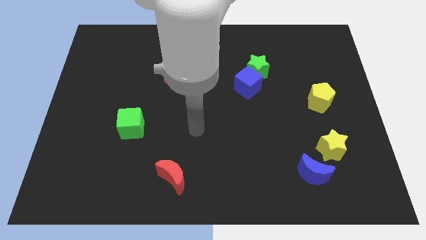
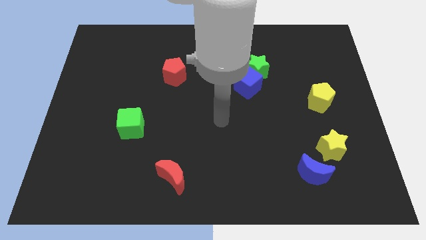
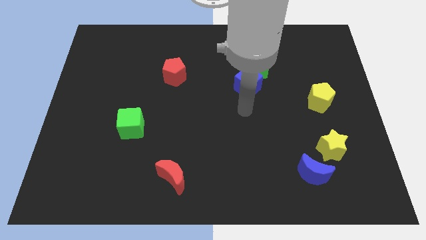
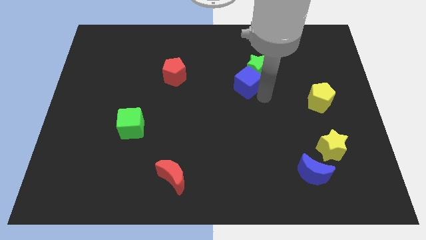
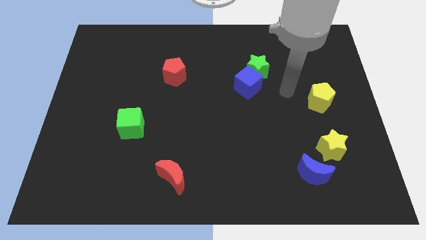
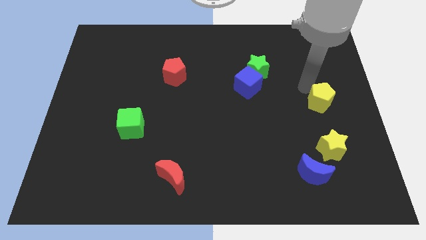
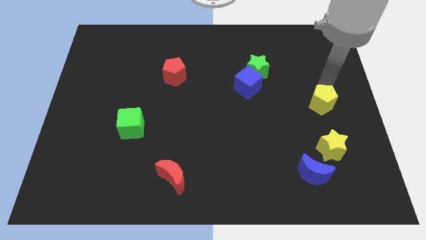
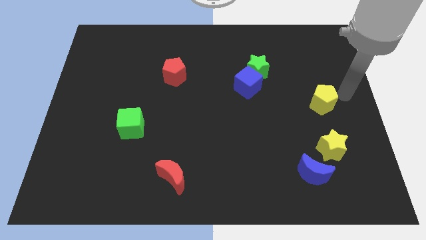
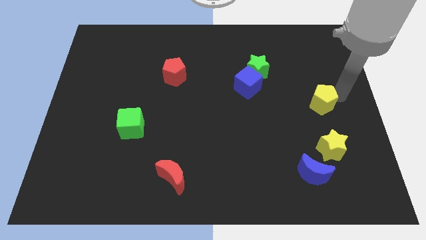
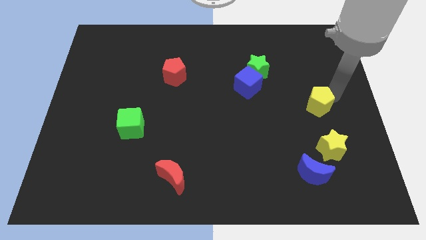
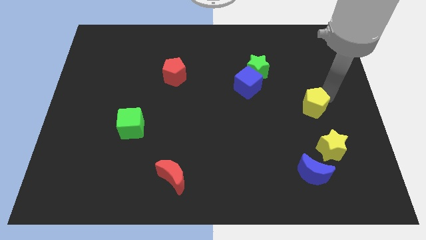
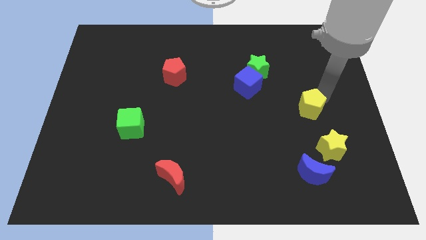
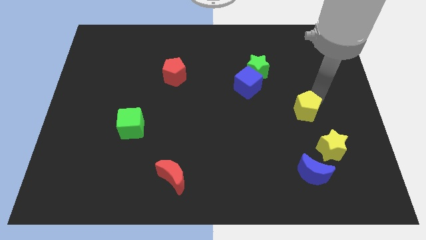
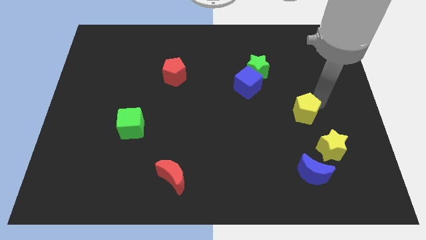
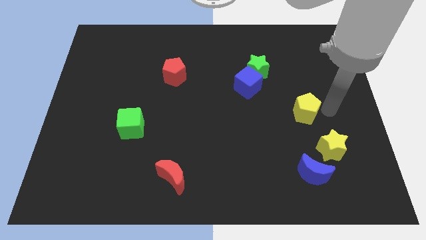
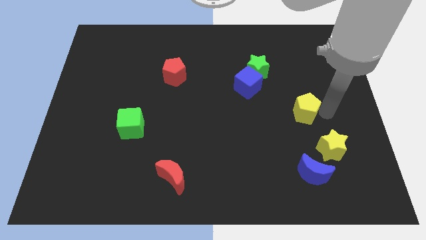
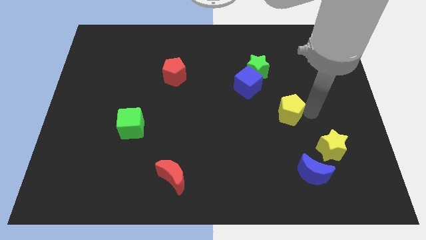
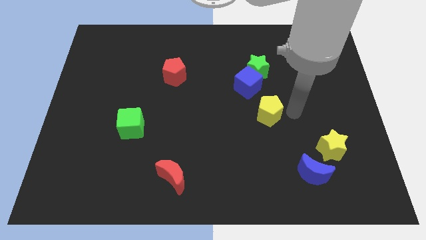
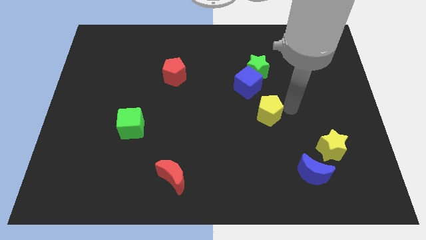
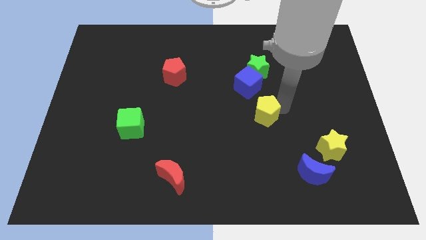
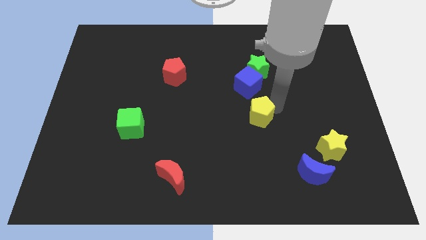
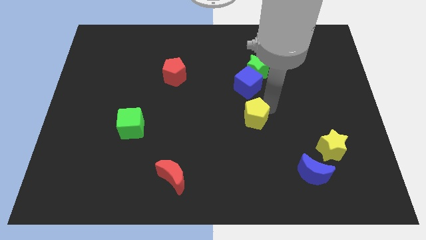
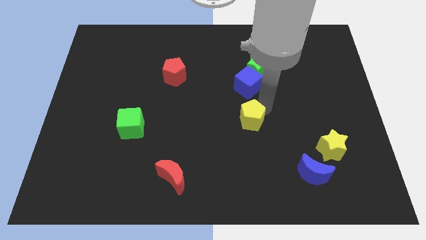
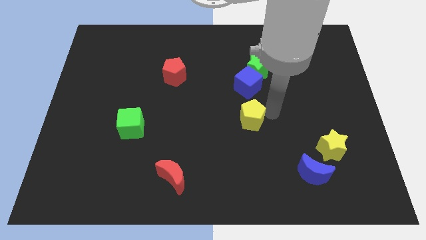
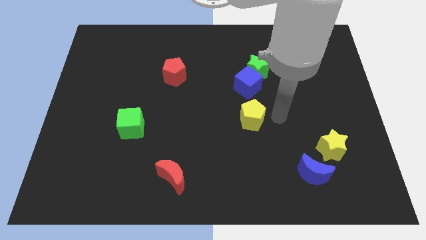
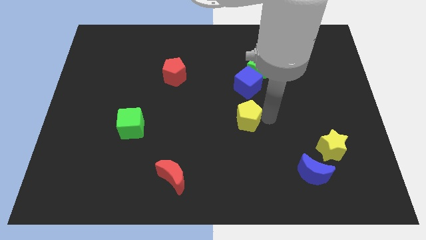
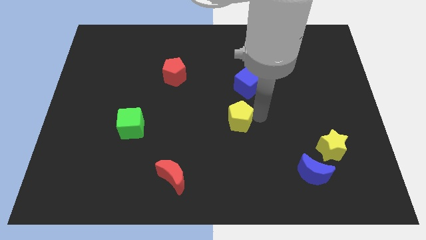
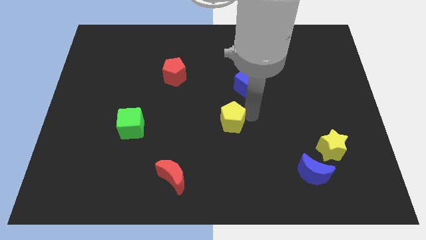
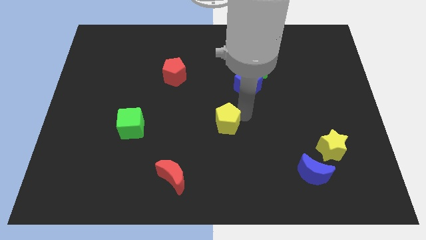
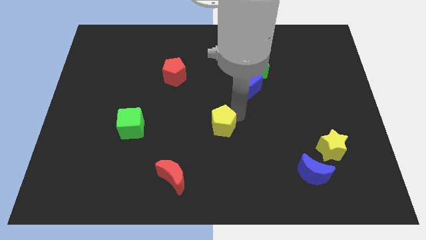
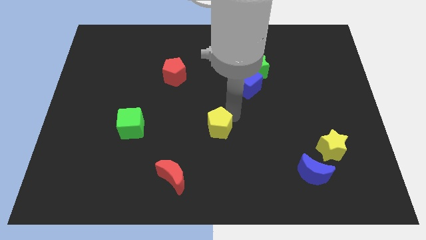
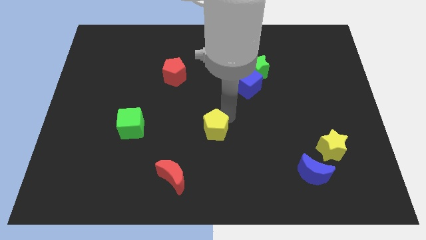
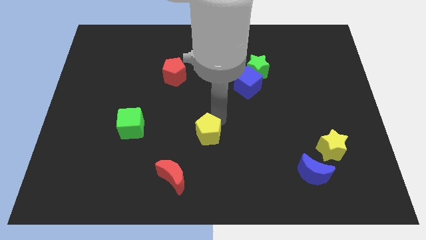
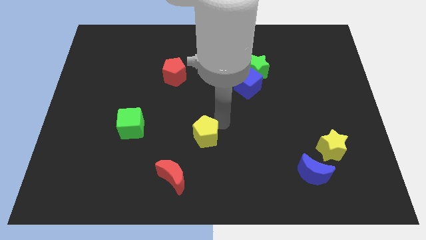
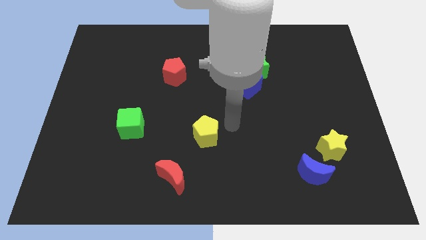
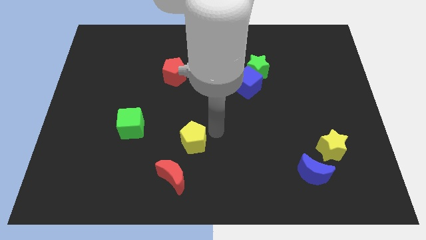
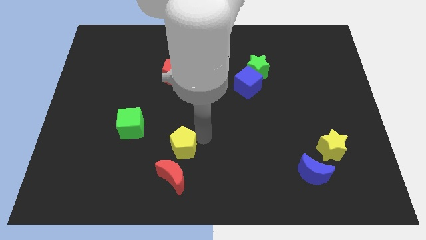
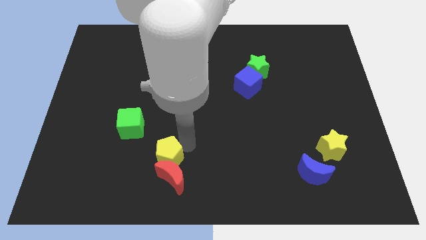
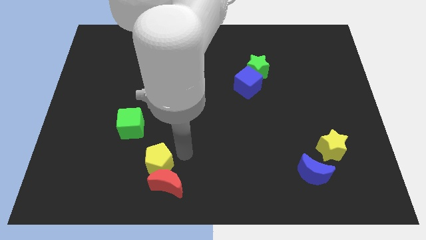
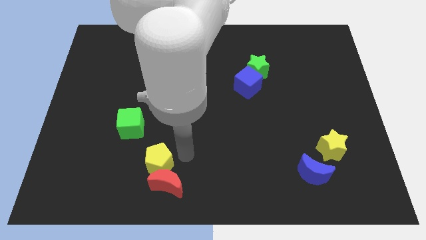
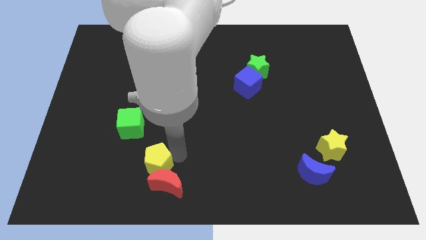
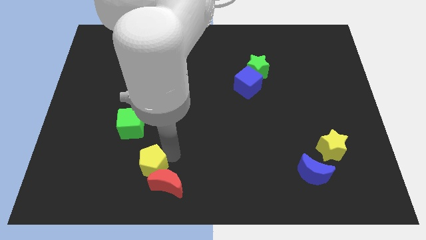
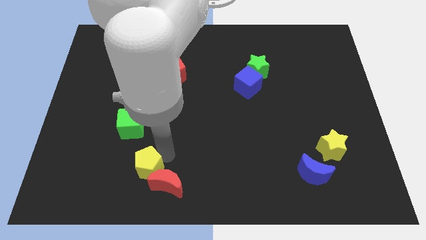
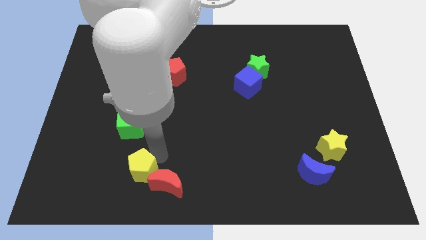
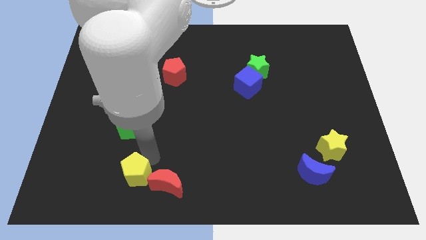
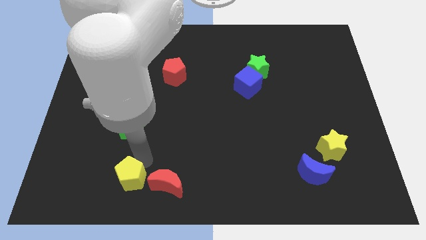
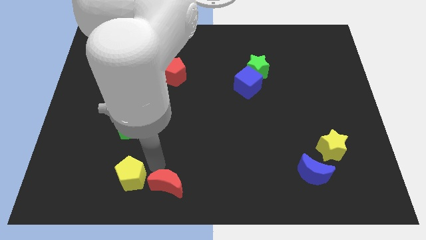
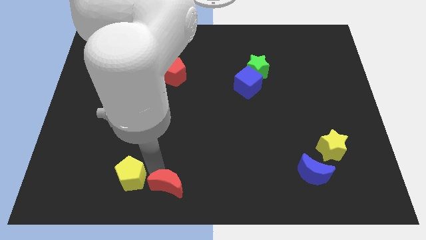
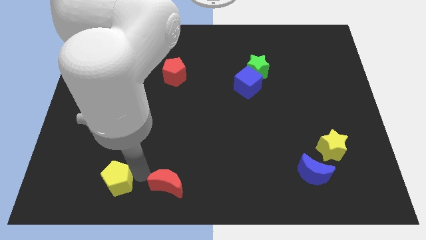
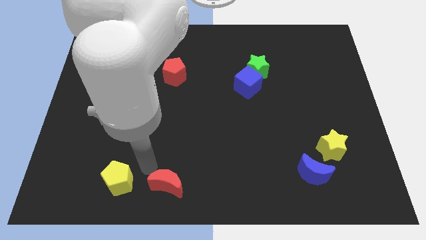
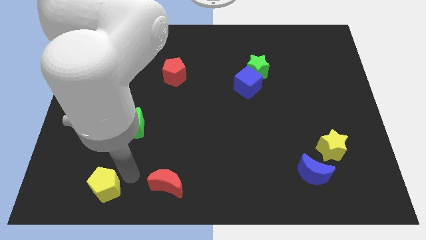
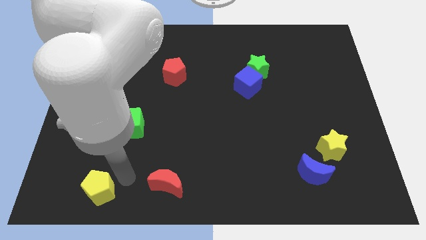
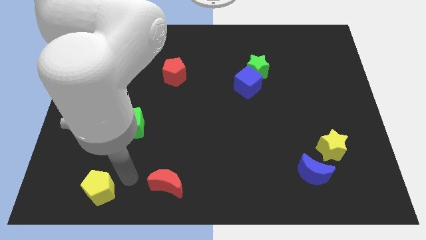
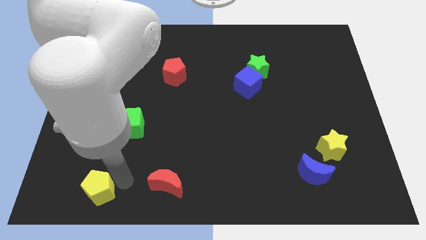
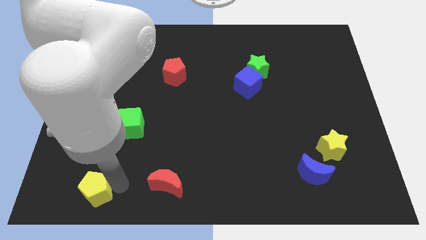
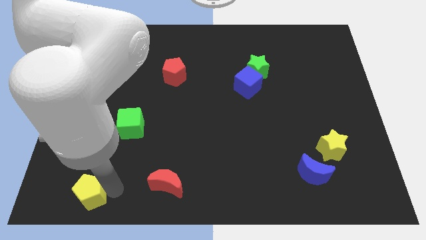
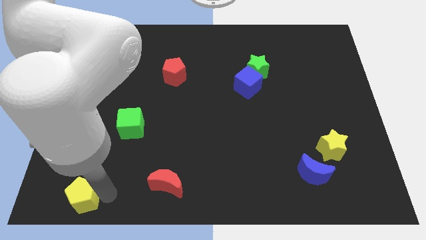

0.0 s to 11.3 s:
move the yellow pentagon to the bottom left of the board

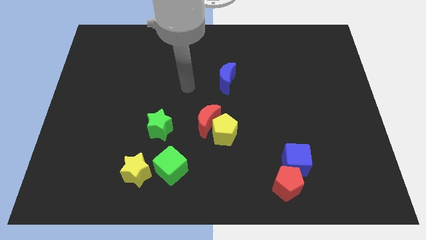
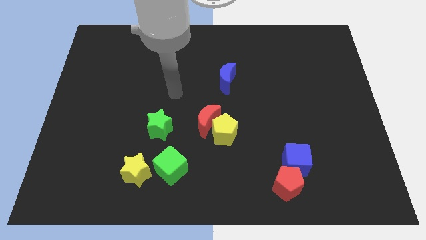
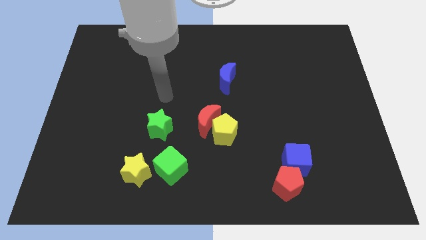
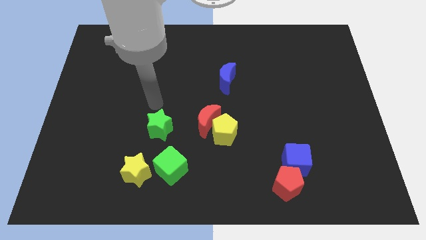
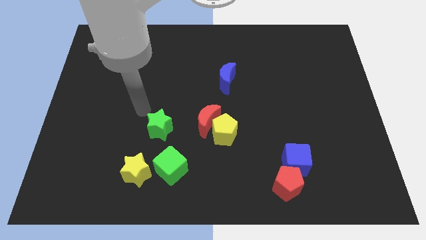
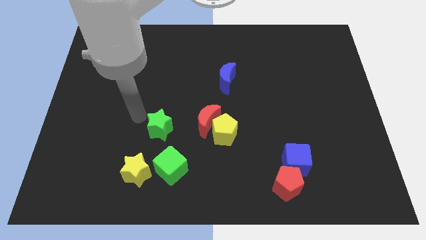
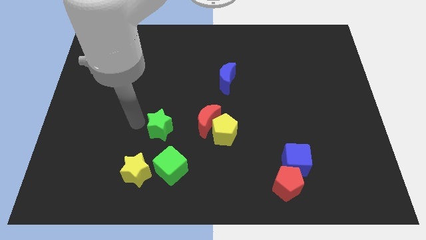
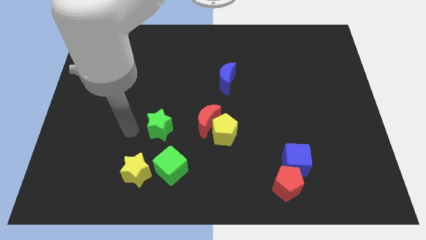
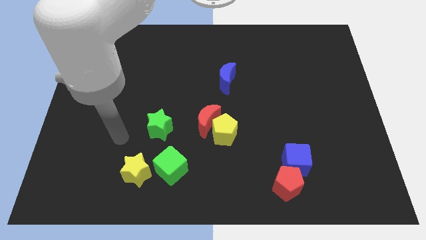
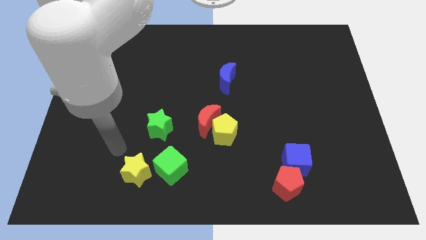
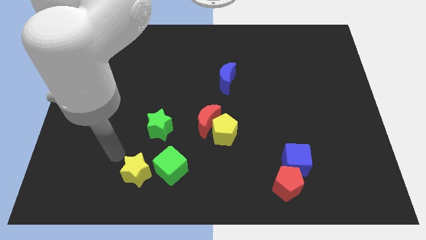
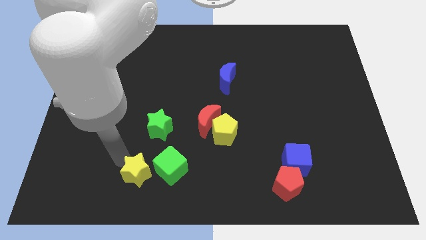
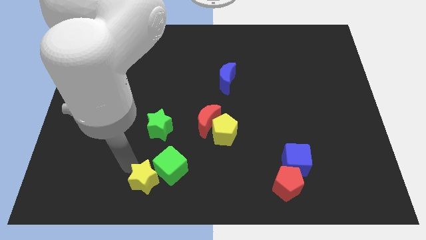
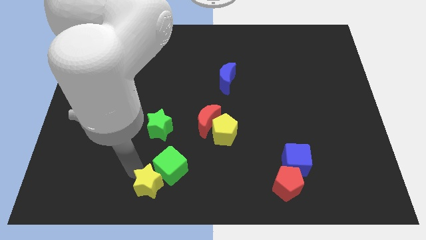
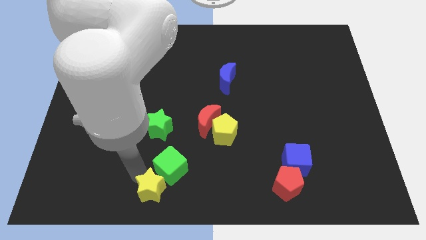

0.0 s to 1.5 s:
put the yellow star to the bottom side
